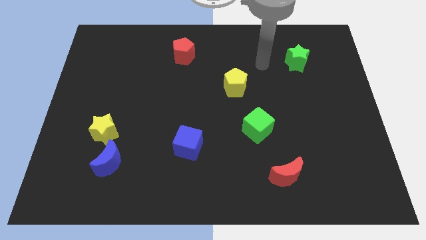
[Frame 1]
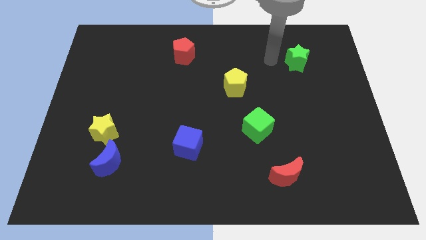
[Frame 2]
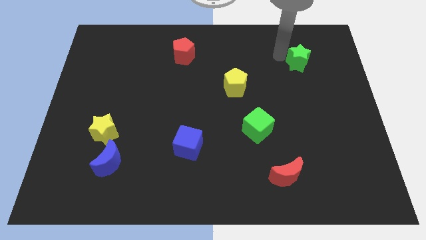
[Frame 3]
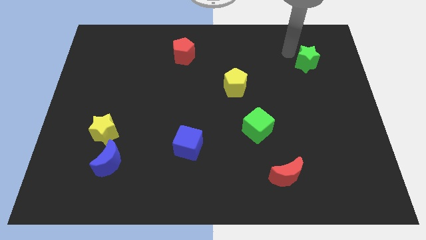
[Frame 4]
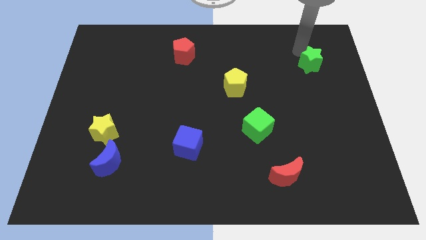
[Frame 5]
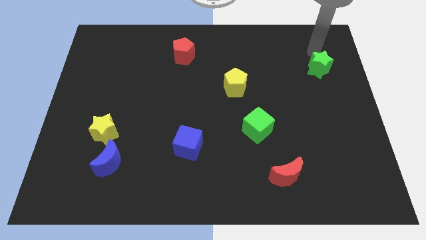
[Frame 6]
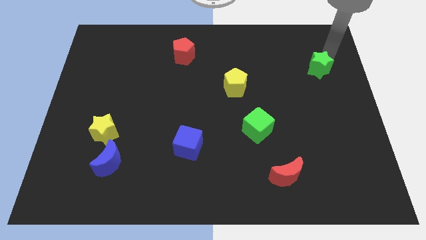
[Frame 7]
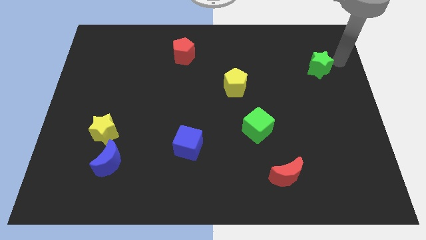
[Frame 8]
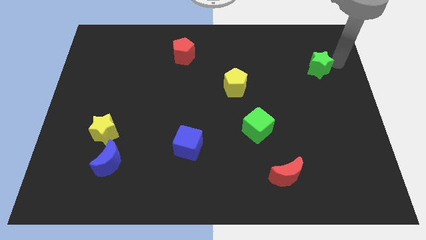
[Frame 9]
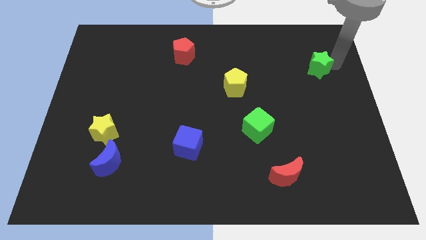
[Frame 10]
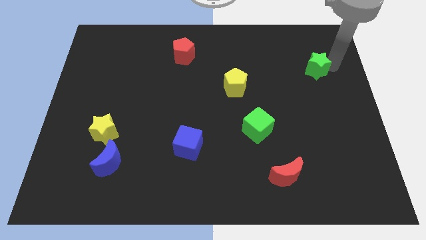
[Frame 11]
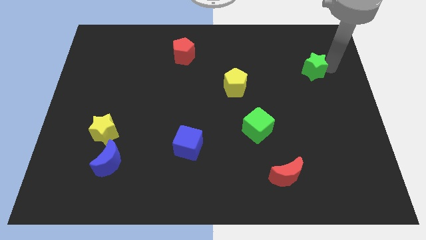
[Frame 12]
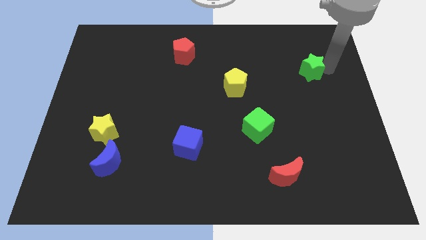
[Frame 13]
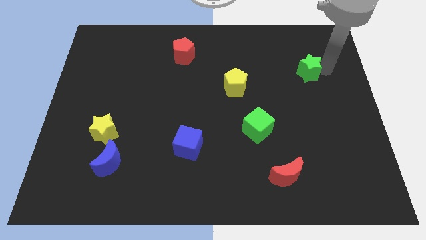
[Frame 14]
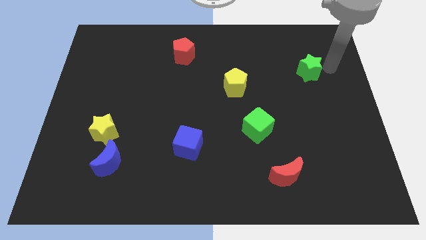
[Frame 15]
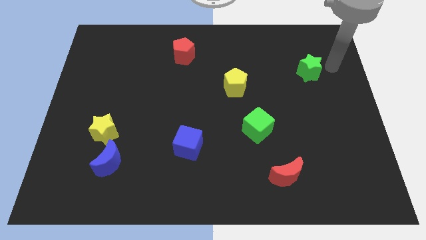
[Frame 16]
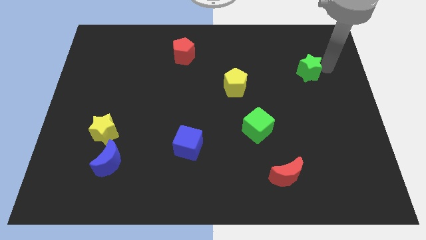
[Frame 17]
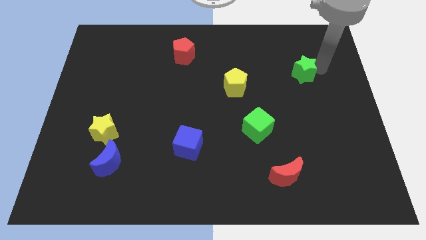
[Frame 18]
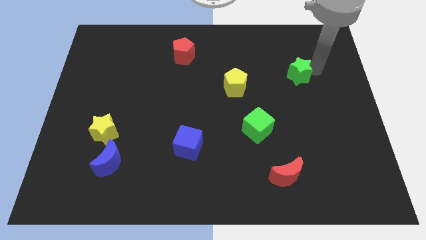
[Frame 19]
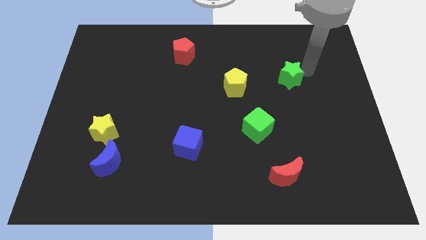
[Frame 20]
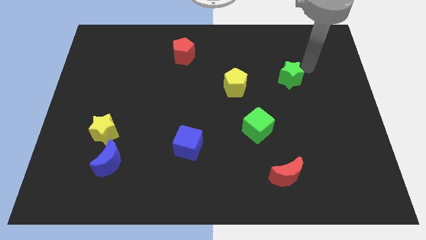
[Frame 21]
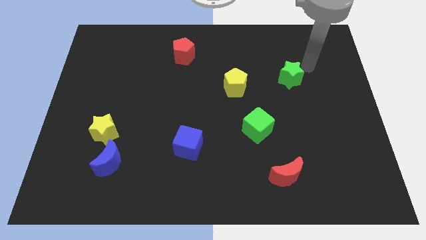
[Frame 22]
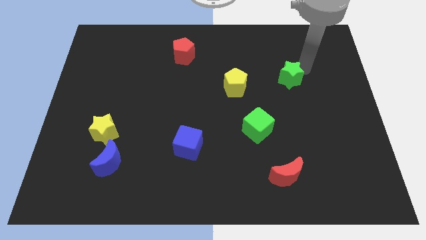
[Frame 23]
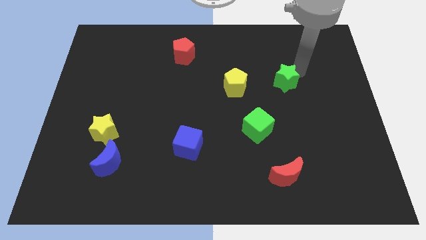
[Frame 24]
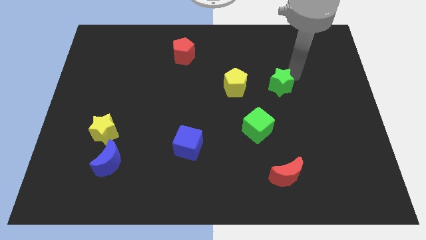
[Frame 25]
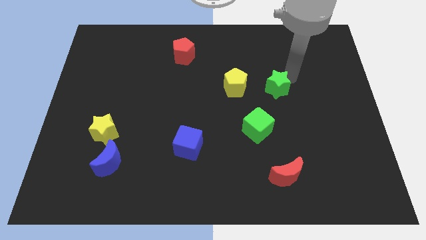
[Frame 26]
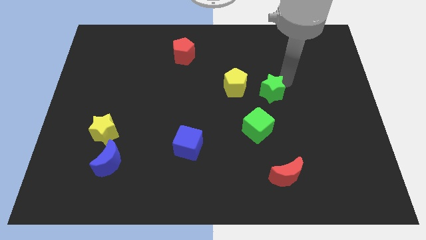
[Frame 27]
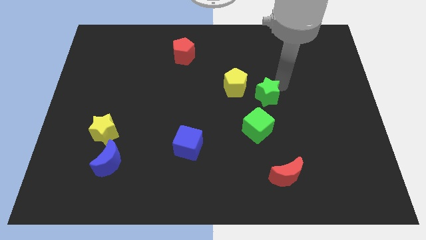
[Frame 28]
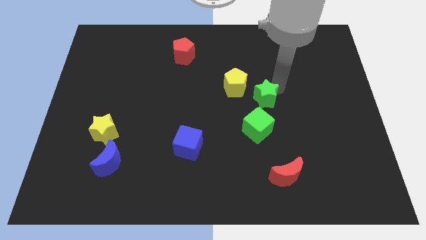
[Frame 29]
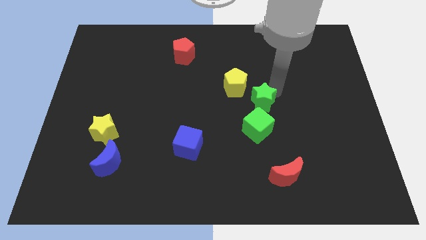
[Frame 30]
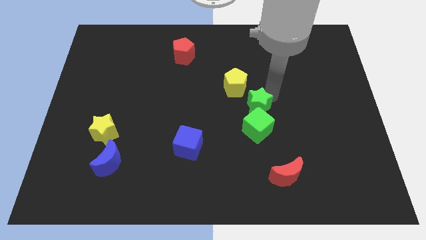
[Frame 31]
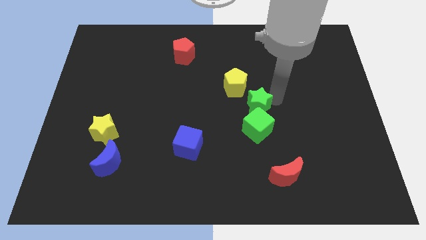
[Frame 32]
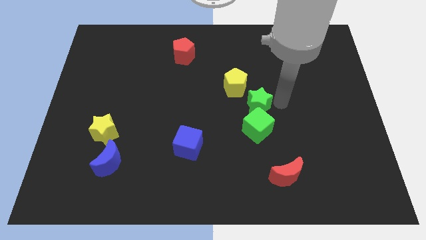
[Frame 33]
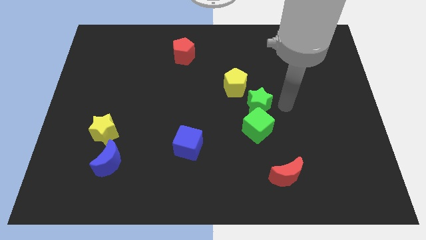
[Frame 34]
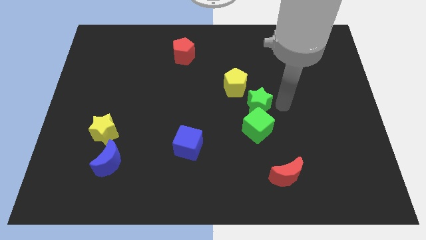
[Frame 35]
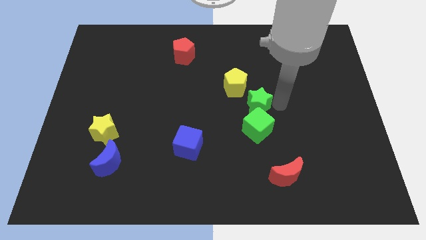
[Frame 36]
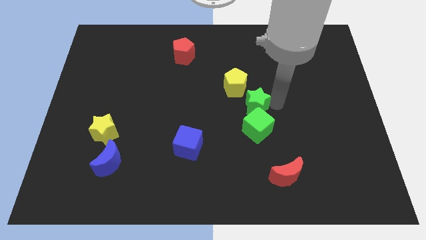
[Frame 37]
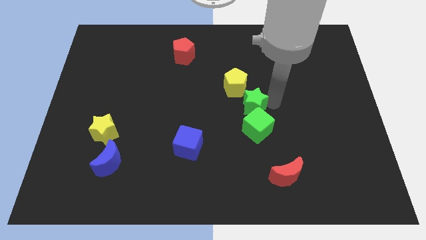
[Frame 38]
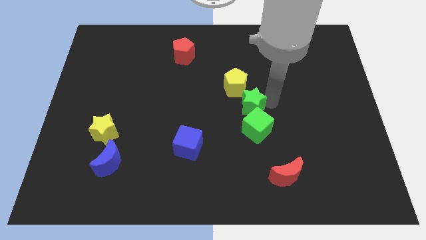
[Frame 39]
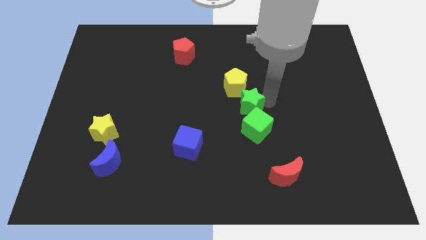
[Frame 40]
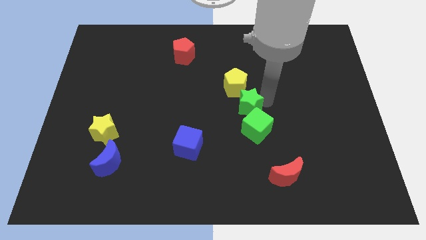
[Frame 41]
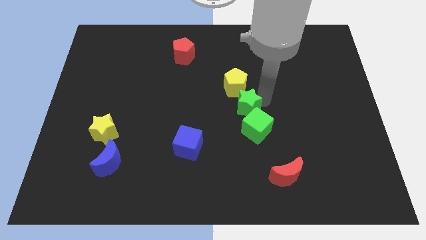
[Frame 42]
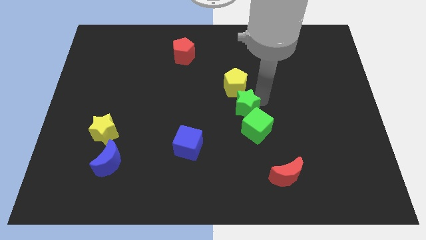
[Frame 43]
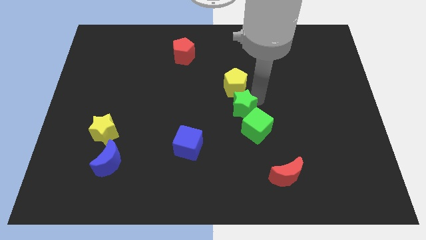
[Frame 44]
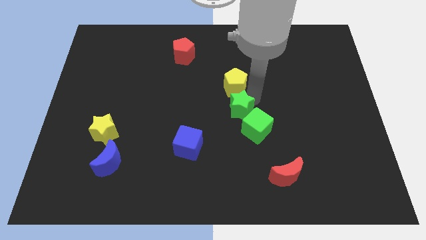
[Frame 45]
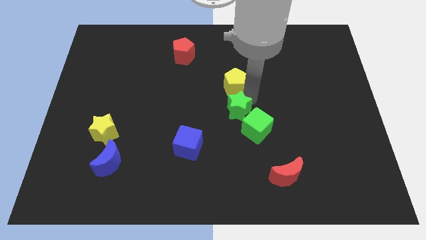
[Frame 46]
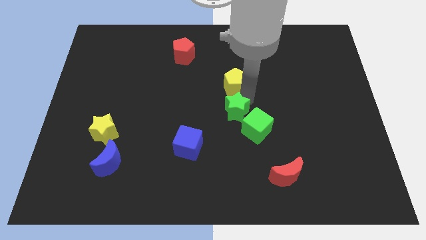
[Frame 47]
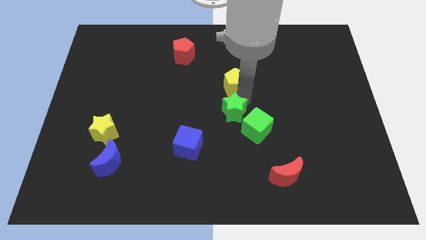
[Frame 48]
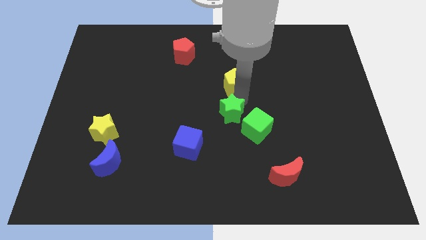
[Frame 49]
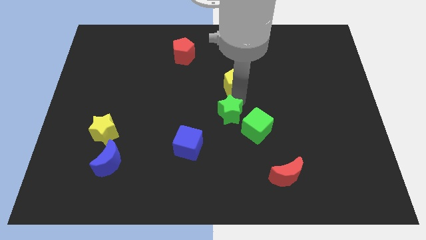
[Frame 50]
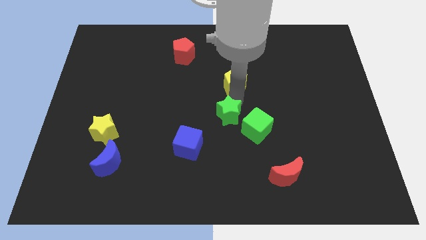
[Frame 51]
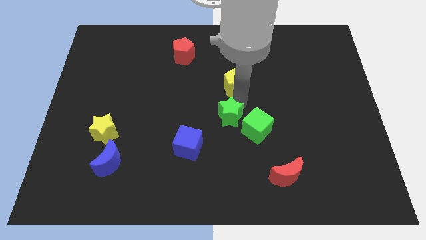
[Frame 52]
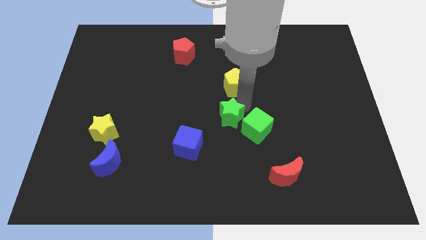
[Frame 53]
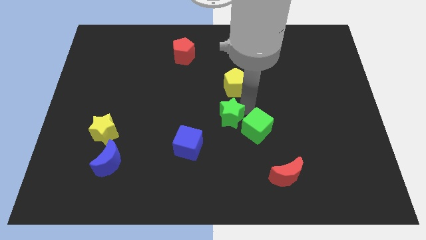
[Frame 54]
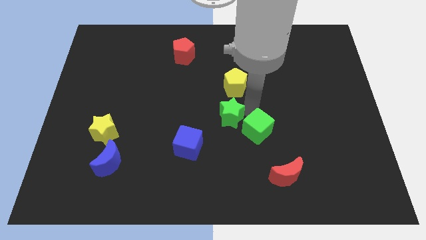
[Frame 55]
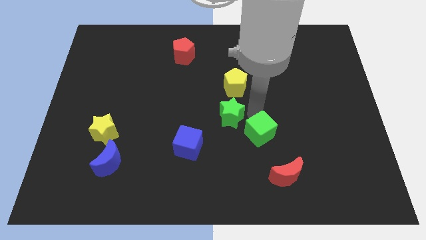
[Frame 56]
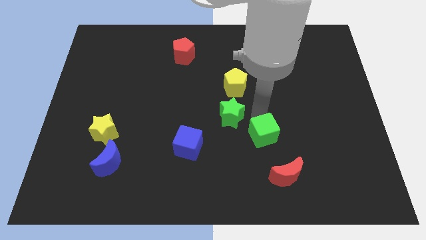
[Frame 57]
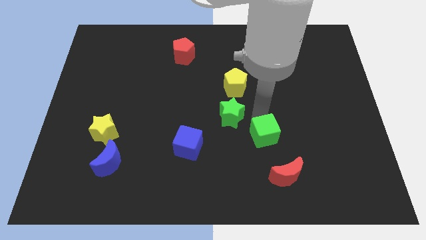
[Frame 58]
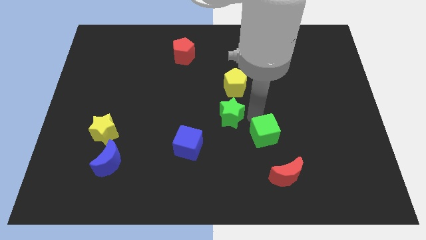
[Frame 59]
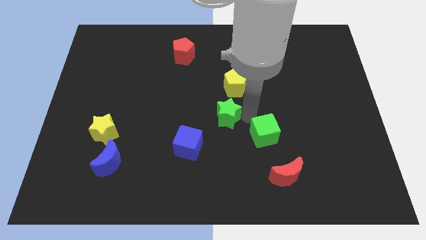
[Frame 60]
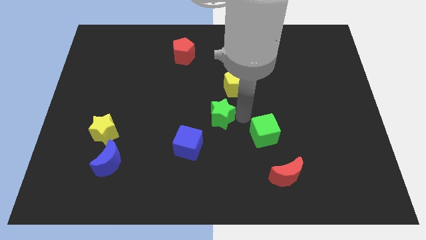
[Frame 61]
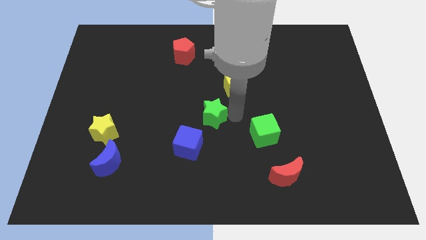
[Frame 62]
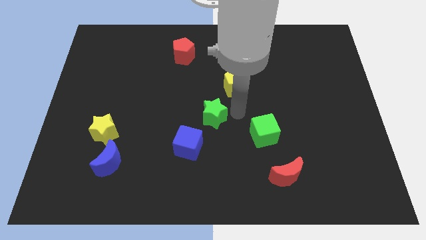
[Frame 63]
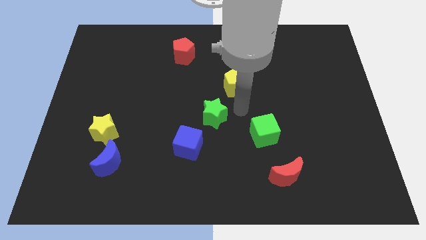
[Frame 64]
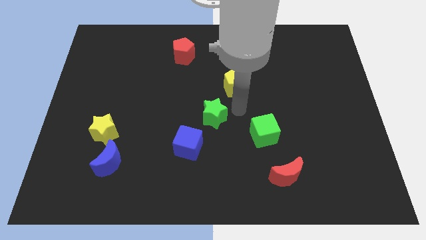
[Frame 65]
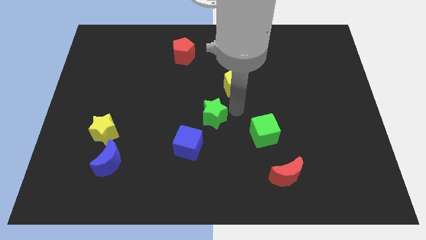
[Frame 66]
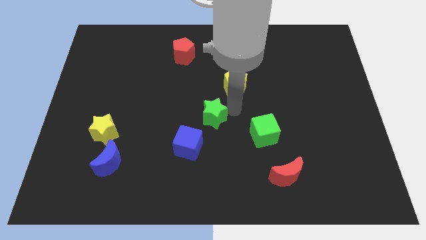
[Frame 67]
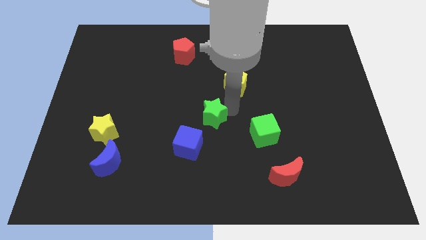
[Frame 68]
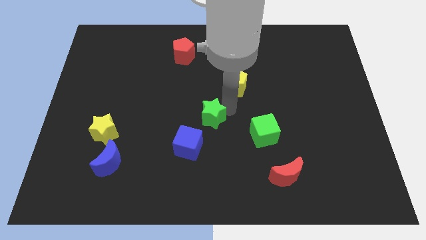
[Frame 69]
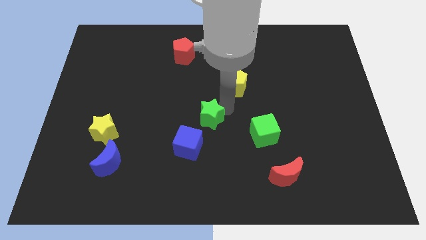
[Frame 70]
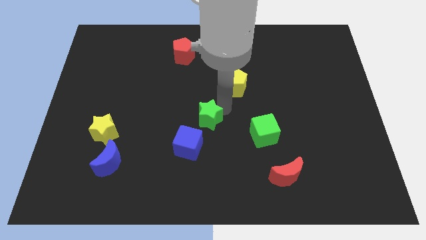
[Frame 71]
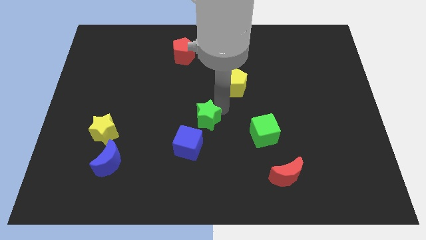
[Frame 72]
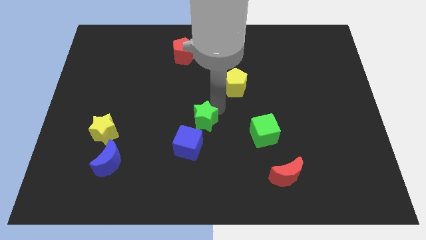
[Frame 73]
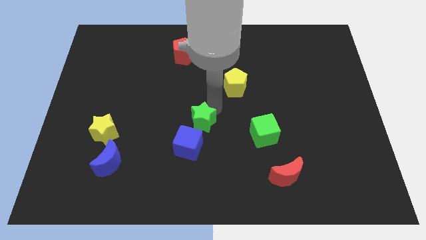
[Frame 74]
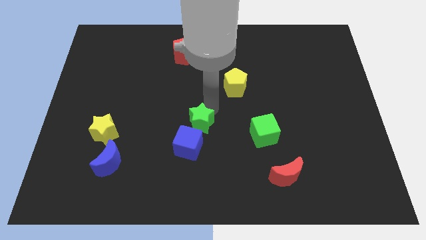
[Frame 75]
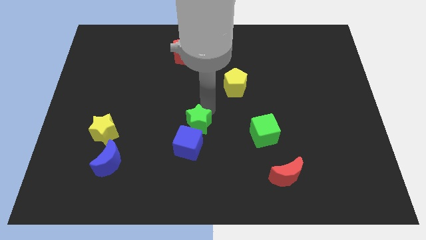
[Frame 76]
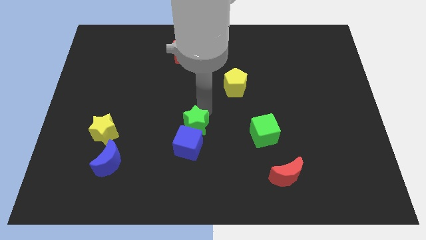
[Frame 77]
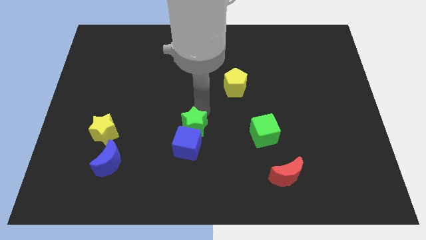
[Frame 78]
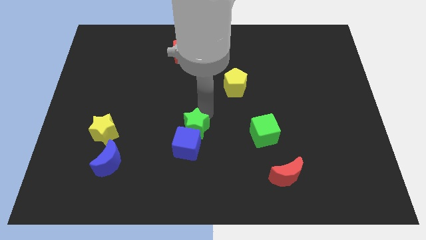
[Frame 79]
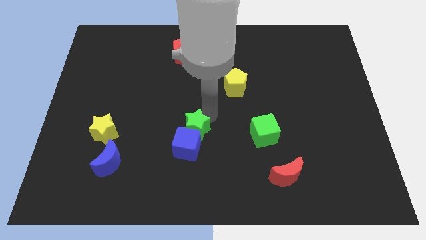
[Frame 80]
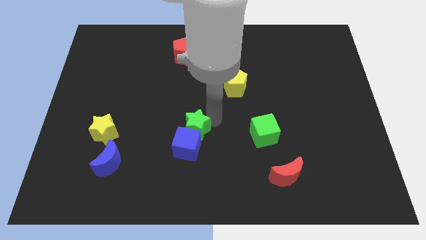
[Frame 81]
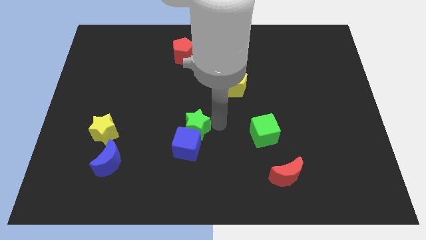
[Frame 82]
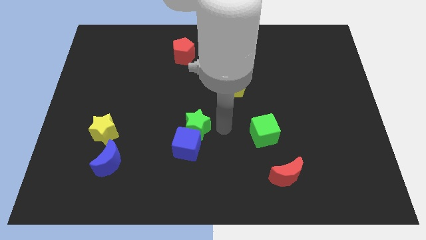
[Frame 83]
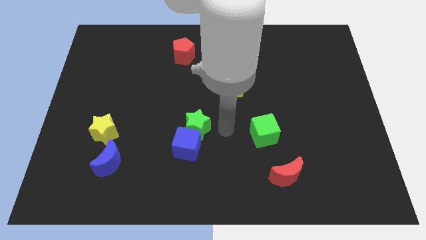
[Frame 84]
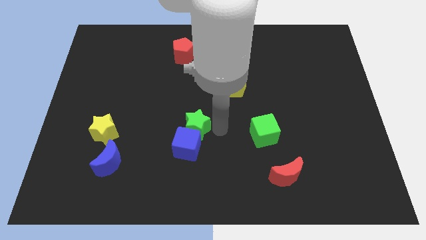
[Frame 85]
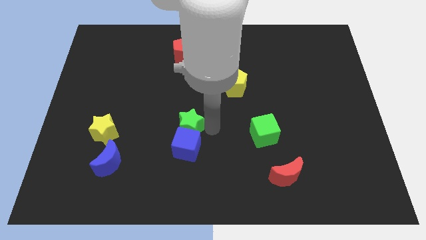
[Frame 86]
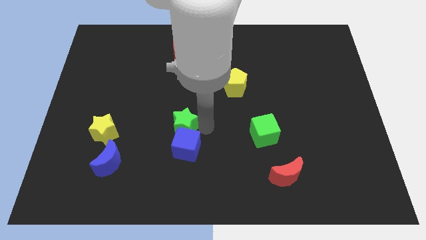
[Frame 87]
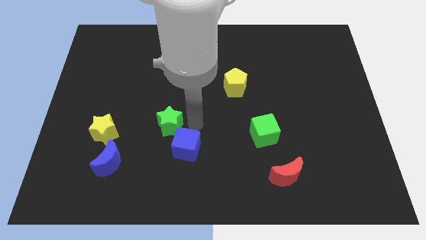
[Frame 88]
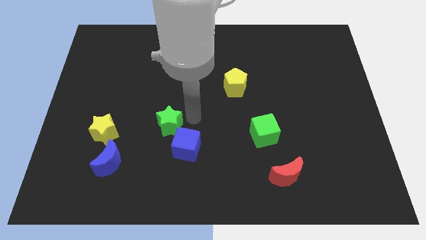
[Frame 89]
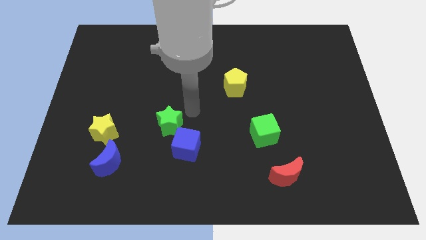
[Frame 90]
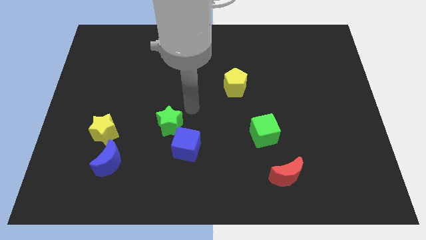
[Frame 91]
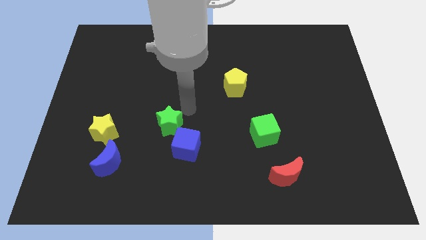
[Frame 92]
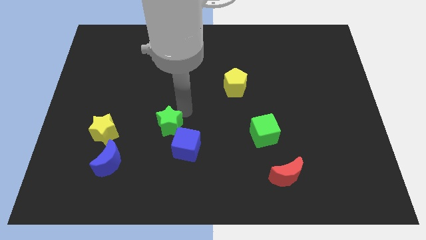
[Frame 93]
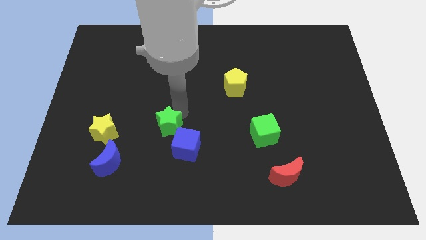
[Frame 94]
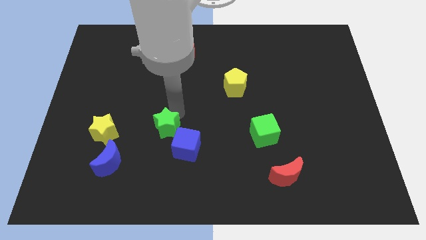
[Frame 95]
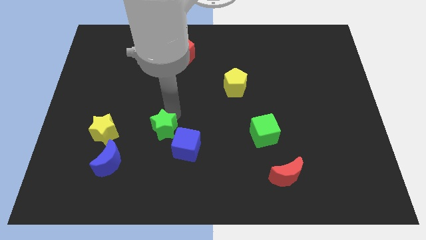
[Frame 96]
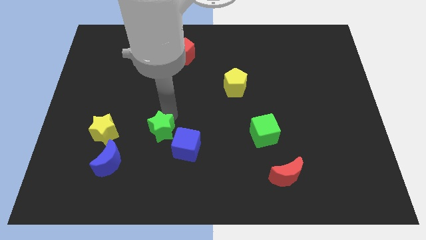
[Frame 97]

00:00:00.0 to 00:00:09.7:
move the green star to the left side of the blue cube
